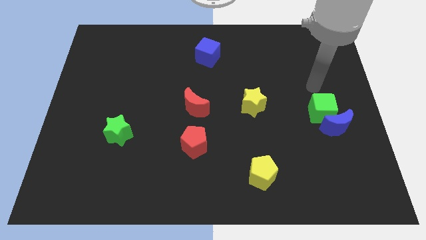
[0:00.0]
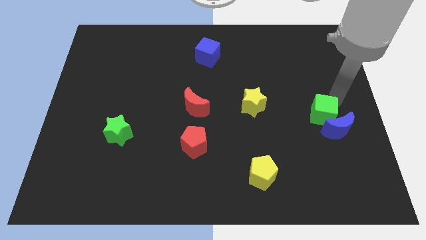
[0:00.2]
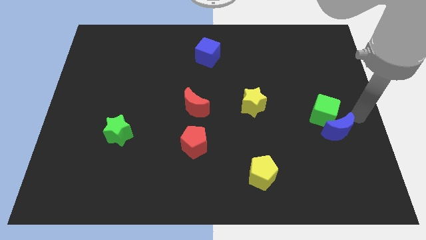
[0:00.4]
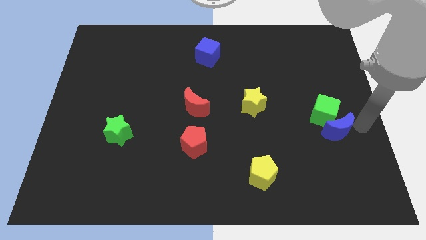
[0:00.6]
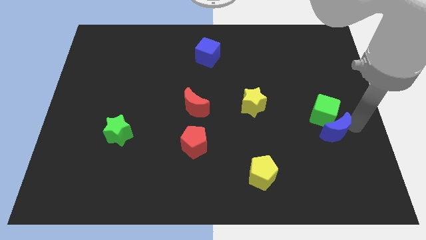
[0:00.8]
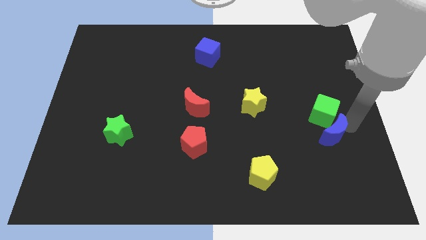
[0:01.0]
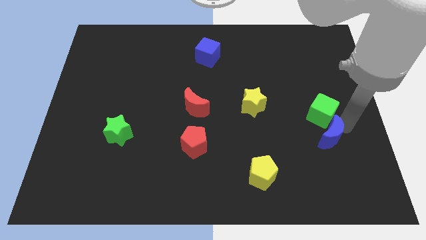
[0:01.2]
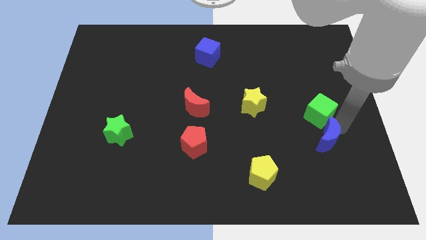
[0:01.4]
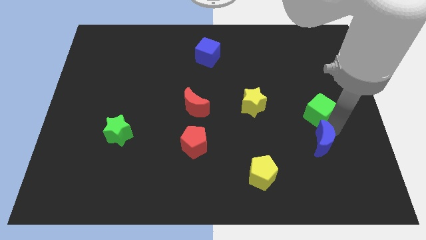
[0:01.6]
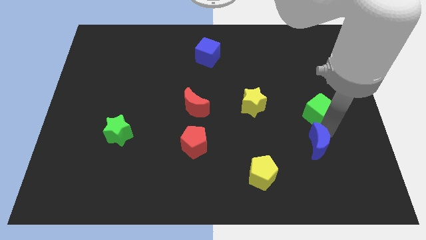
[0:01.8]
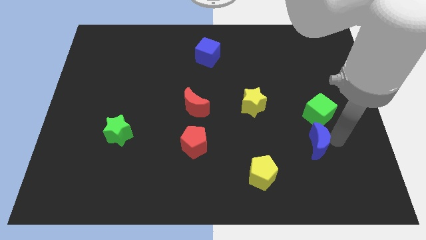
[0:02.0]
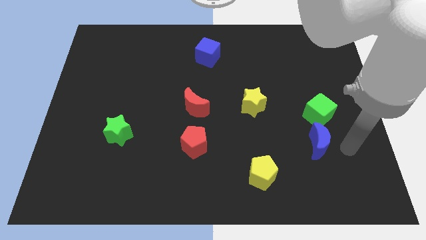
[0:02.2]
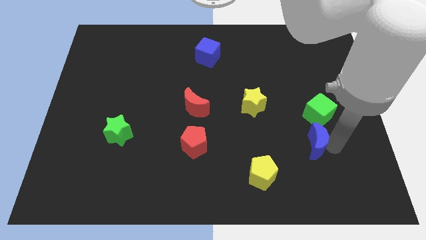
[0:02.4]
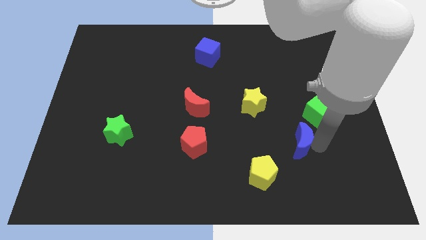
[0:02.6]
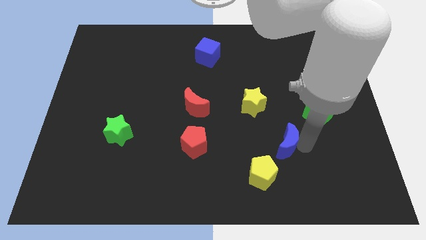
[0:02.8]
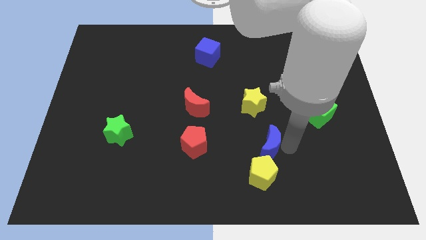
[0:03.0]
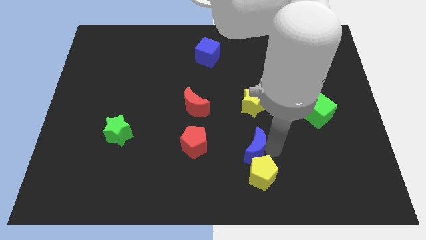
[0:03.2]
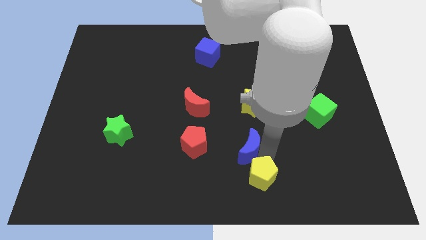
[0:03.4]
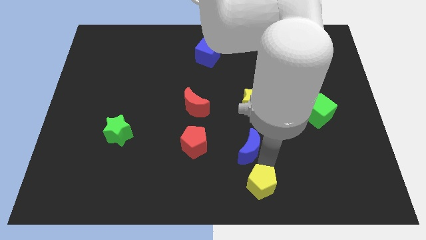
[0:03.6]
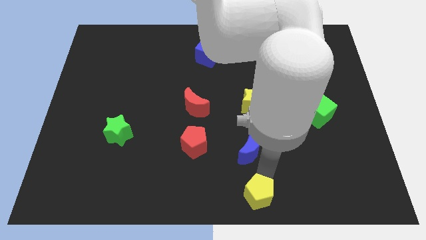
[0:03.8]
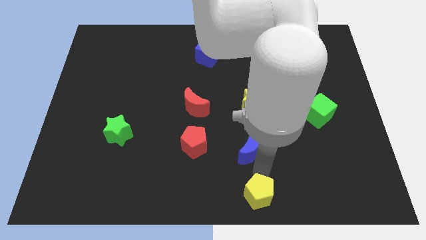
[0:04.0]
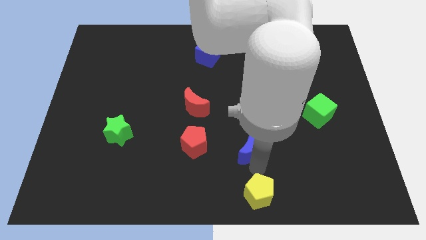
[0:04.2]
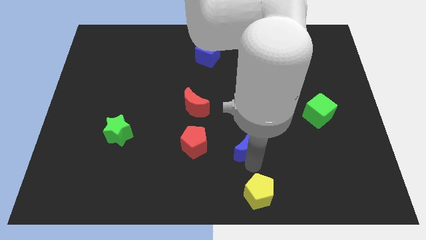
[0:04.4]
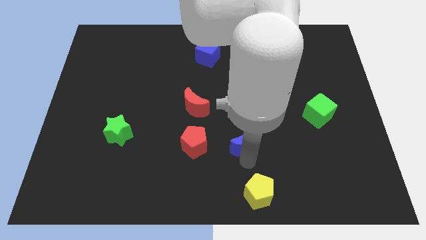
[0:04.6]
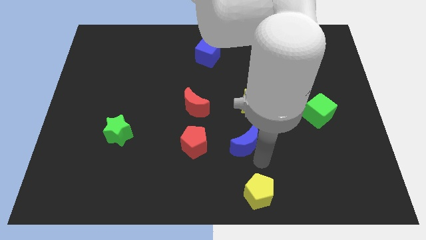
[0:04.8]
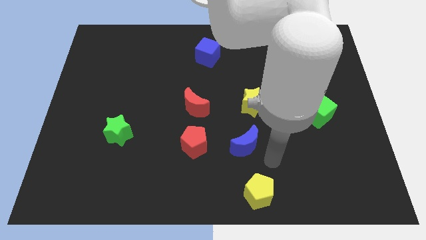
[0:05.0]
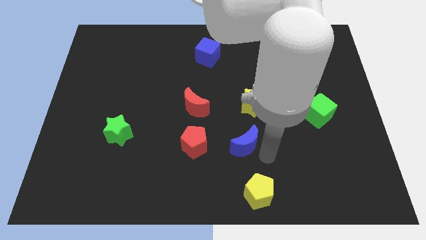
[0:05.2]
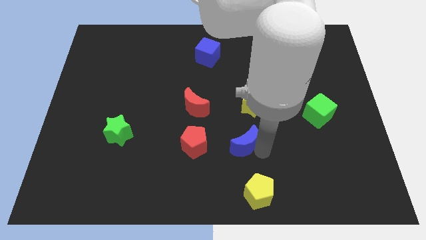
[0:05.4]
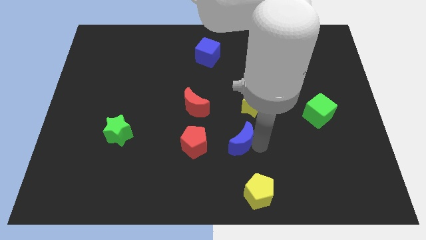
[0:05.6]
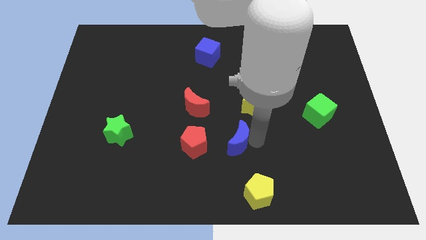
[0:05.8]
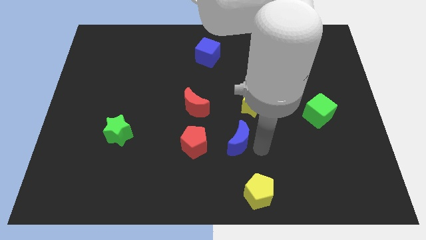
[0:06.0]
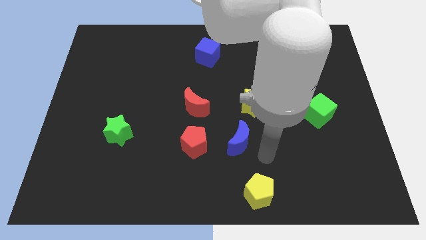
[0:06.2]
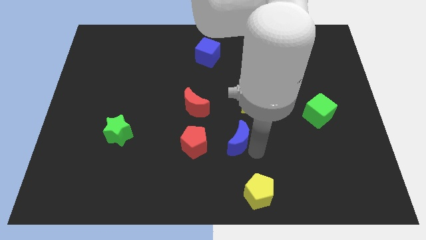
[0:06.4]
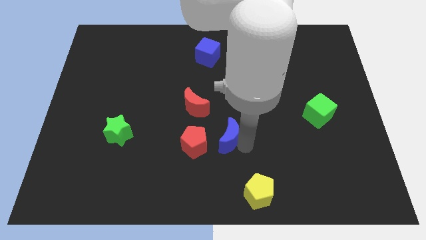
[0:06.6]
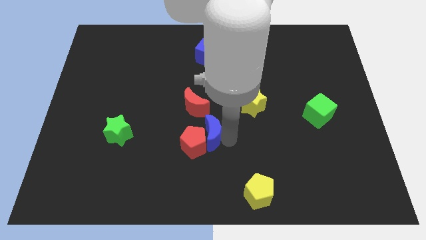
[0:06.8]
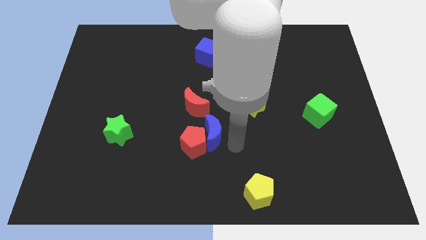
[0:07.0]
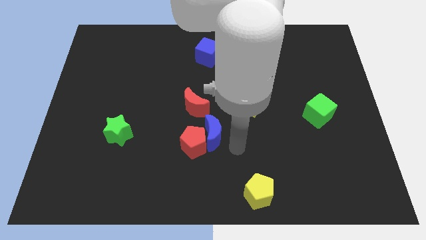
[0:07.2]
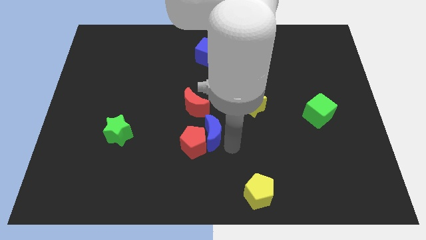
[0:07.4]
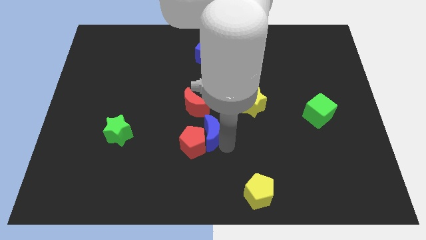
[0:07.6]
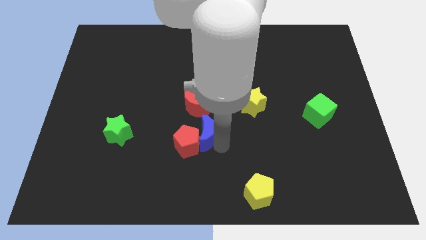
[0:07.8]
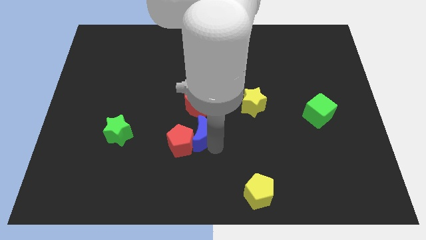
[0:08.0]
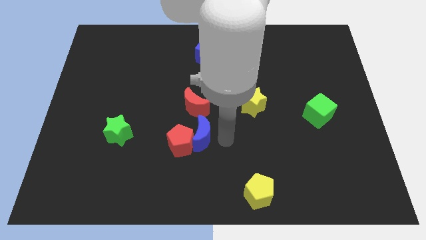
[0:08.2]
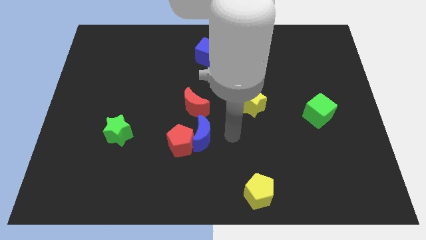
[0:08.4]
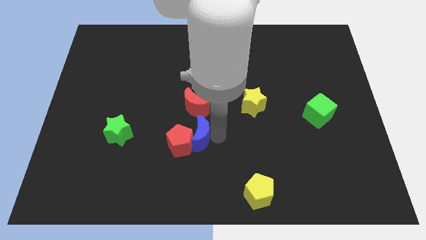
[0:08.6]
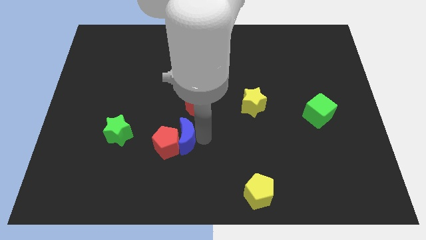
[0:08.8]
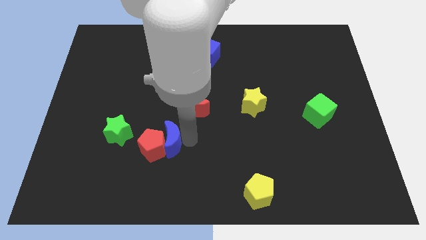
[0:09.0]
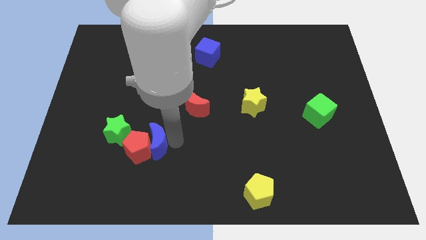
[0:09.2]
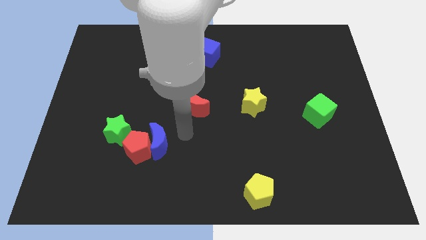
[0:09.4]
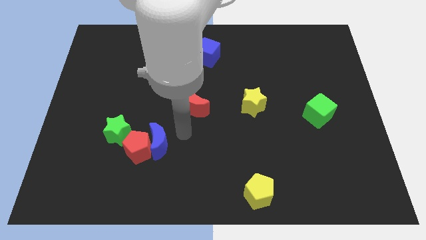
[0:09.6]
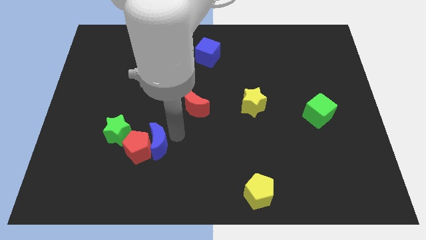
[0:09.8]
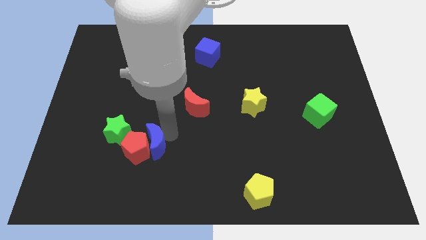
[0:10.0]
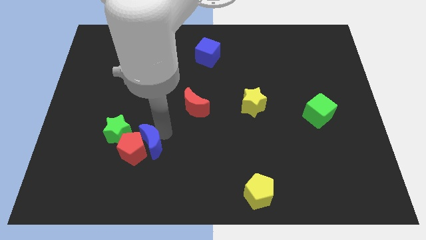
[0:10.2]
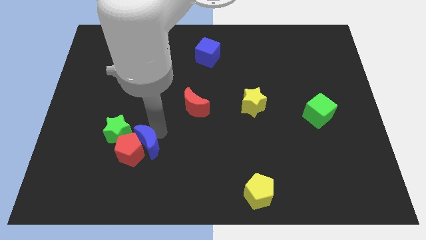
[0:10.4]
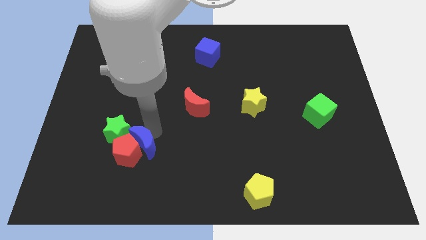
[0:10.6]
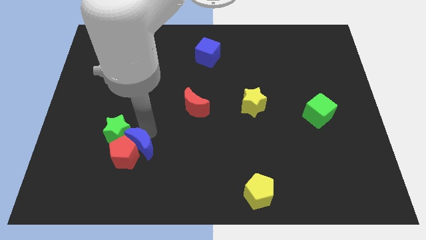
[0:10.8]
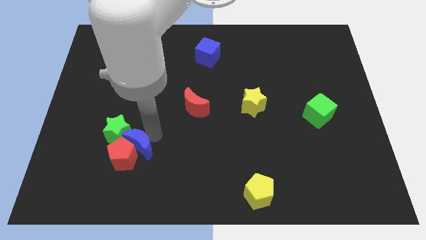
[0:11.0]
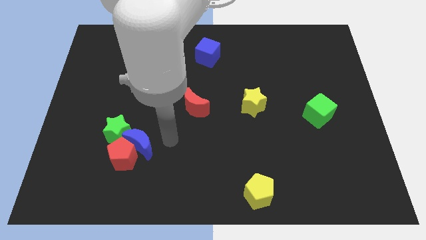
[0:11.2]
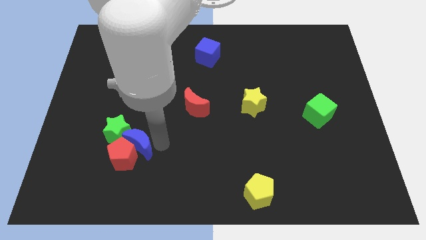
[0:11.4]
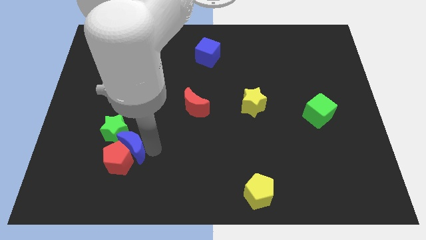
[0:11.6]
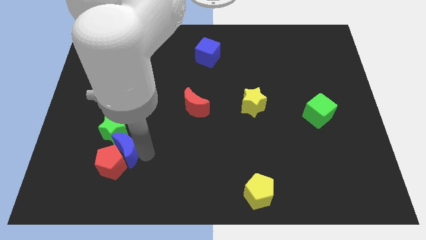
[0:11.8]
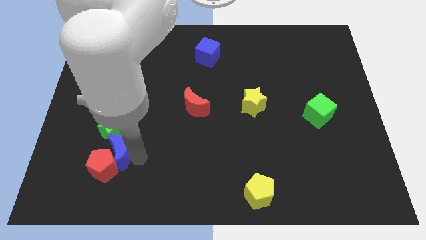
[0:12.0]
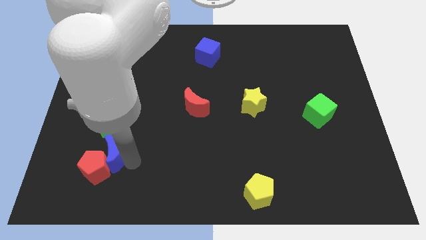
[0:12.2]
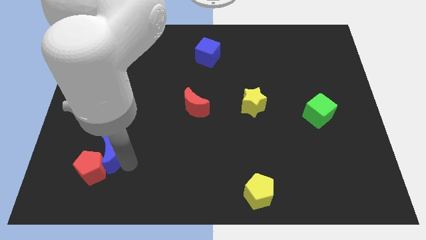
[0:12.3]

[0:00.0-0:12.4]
put the blue moon to the bottom left of the green star
